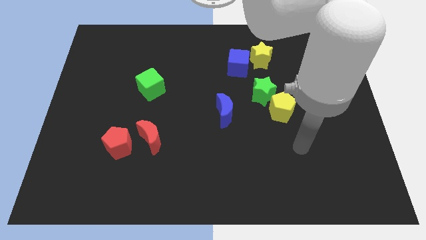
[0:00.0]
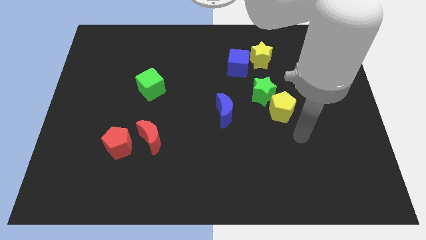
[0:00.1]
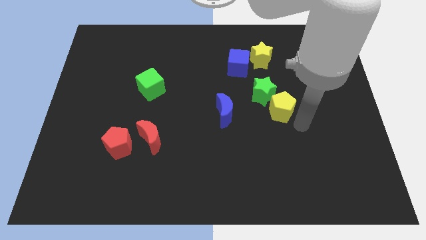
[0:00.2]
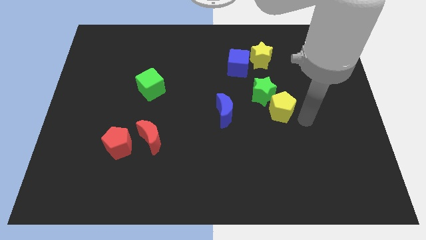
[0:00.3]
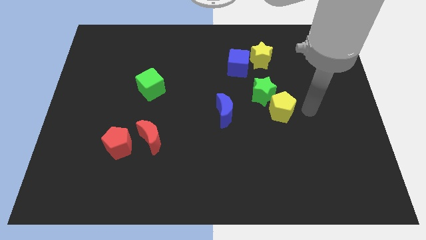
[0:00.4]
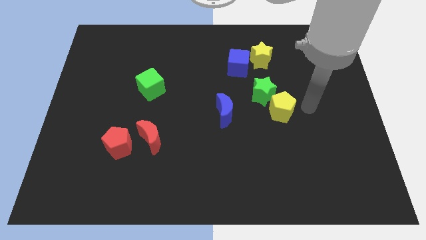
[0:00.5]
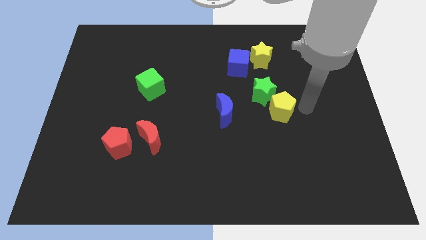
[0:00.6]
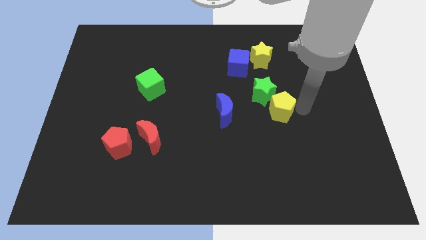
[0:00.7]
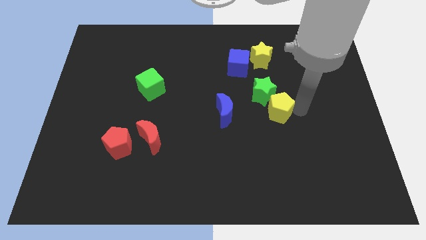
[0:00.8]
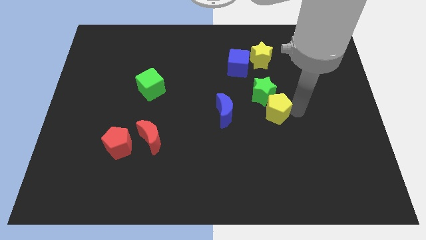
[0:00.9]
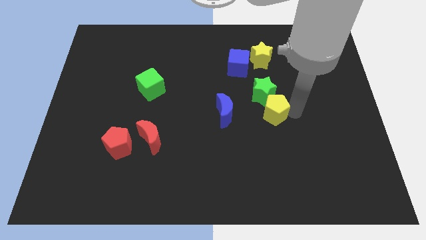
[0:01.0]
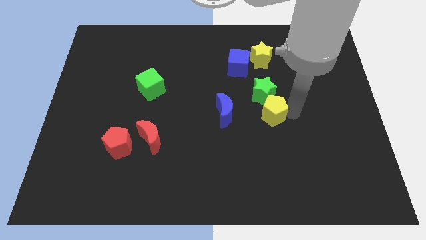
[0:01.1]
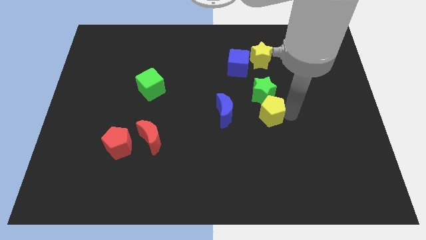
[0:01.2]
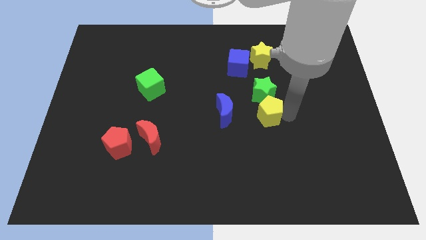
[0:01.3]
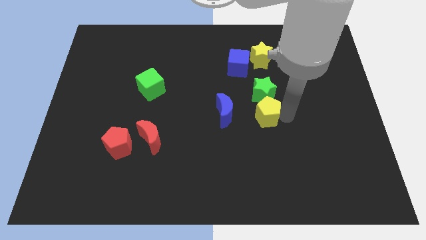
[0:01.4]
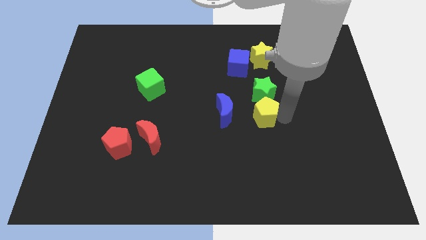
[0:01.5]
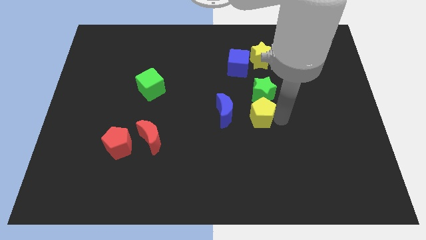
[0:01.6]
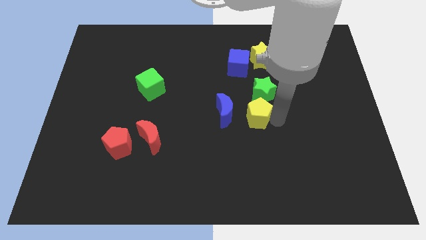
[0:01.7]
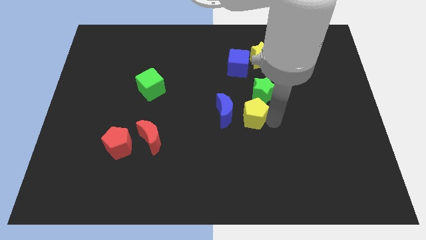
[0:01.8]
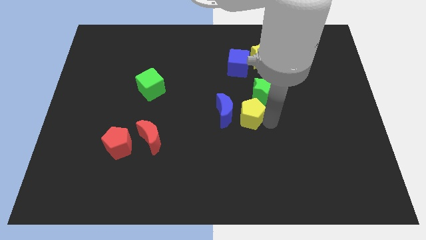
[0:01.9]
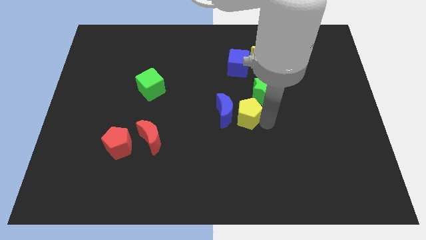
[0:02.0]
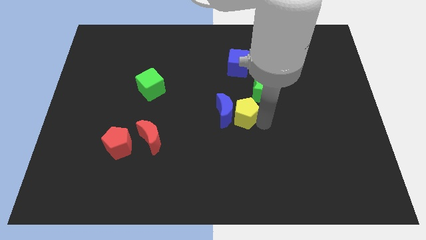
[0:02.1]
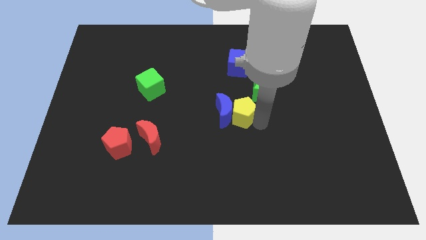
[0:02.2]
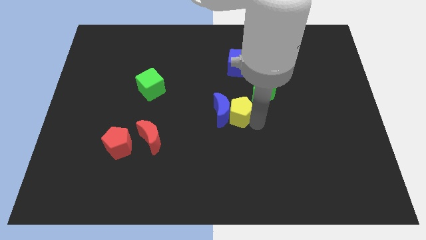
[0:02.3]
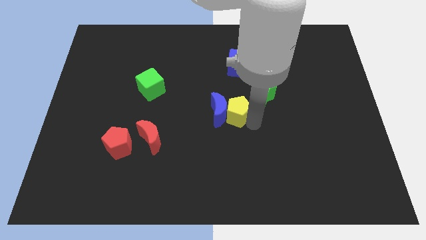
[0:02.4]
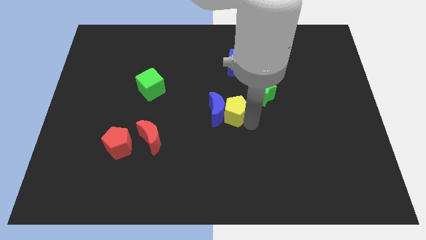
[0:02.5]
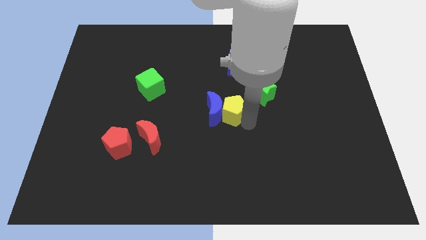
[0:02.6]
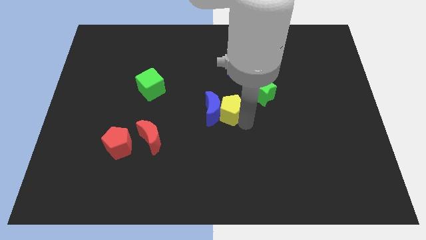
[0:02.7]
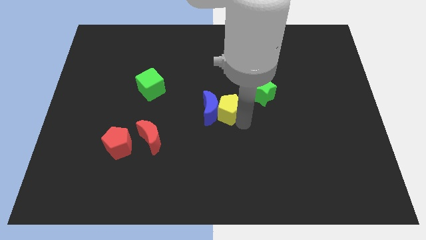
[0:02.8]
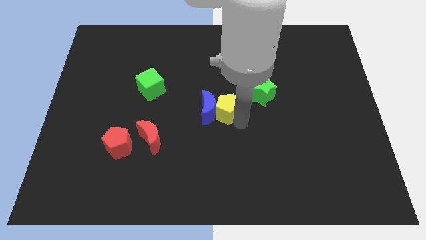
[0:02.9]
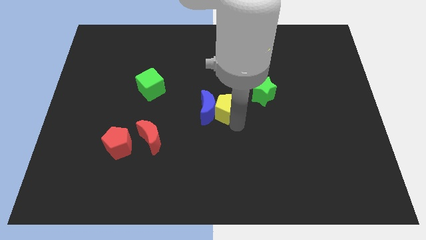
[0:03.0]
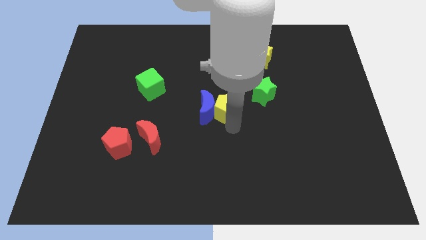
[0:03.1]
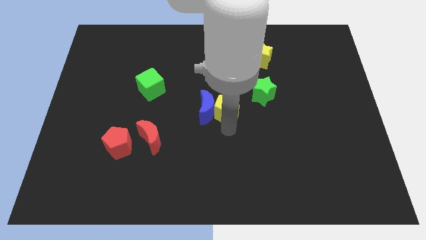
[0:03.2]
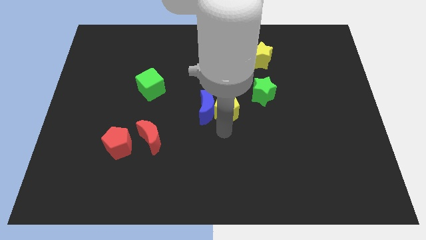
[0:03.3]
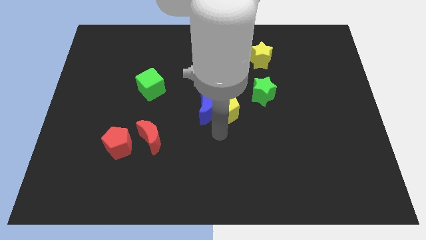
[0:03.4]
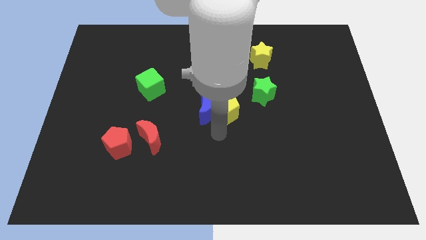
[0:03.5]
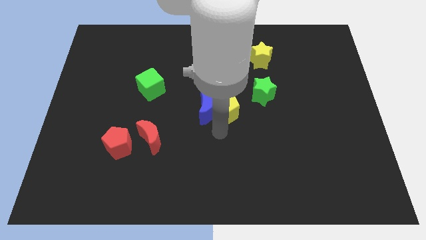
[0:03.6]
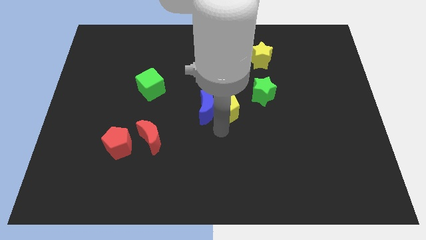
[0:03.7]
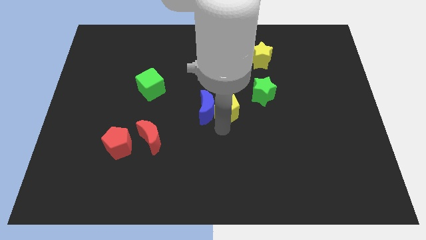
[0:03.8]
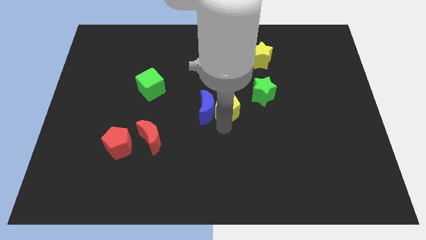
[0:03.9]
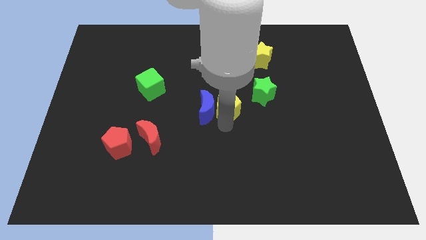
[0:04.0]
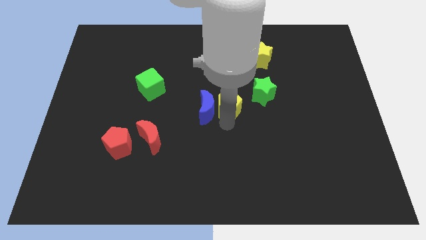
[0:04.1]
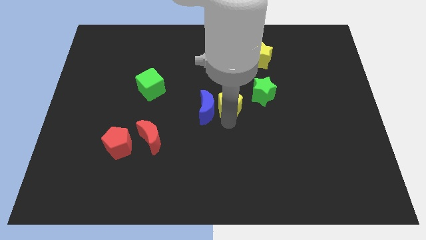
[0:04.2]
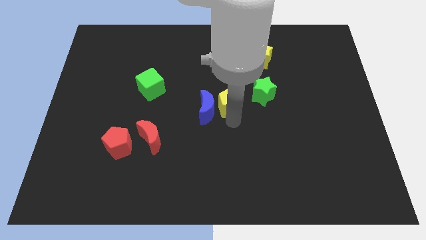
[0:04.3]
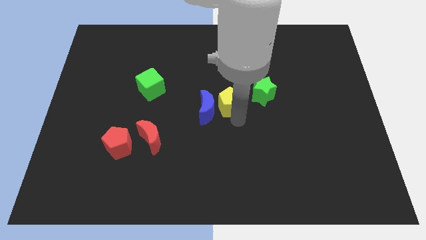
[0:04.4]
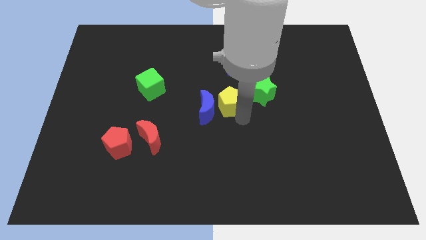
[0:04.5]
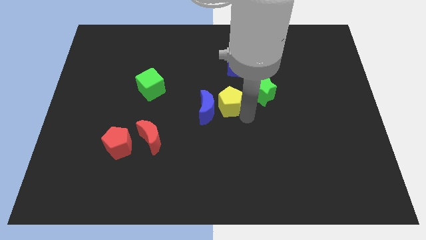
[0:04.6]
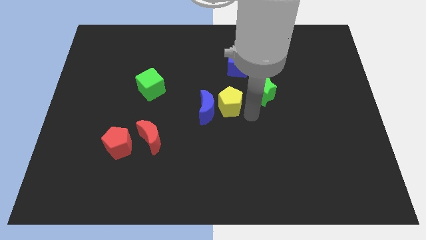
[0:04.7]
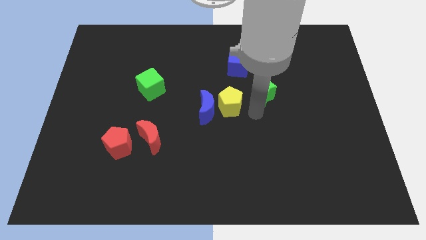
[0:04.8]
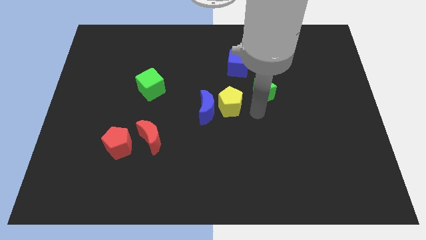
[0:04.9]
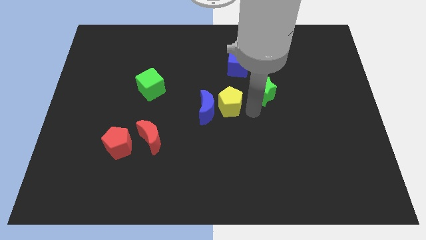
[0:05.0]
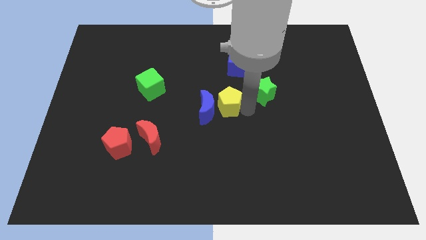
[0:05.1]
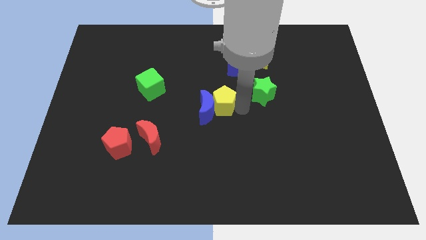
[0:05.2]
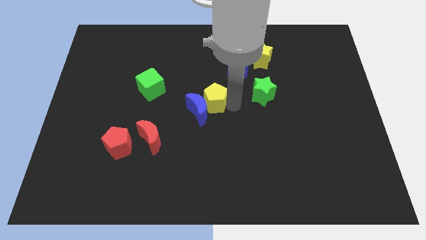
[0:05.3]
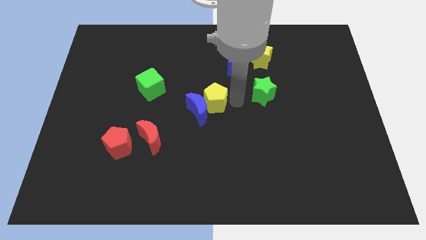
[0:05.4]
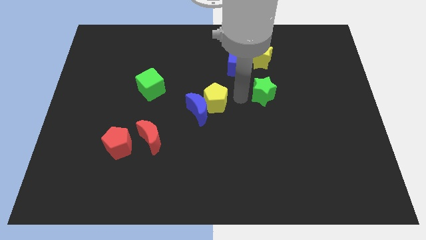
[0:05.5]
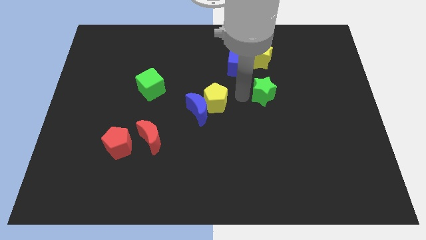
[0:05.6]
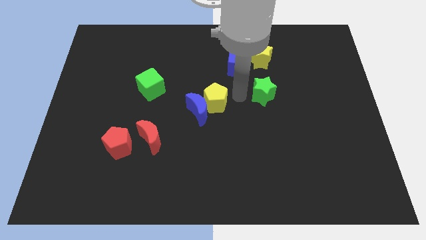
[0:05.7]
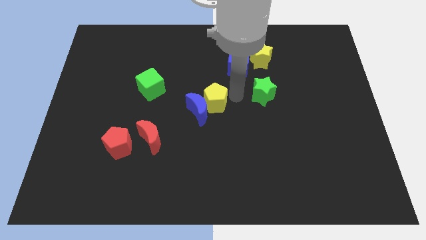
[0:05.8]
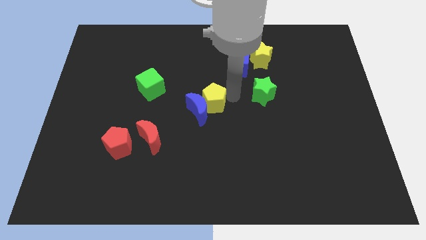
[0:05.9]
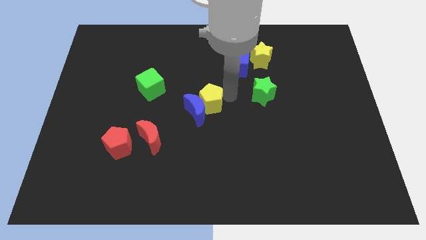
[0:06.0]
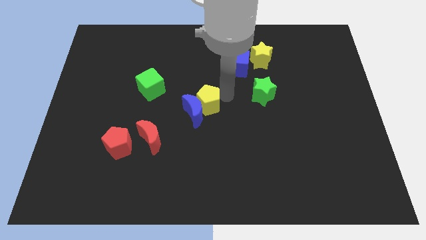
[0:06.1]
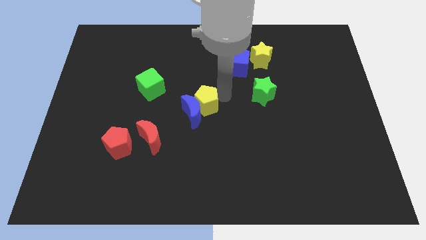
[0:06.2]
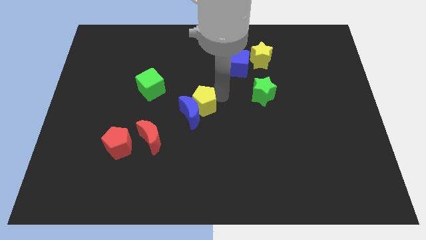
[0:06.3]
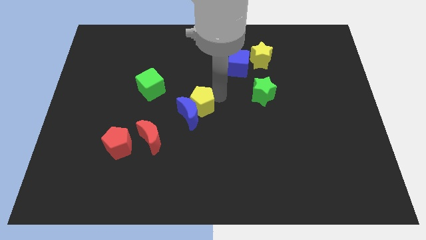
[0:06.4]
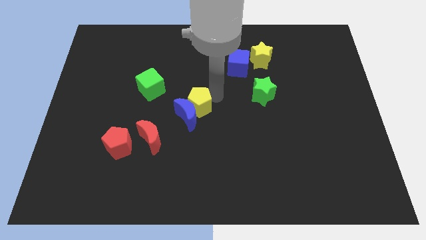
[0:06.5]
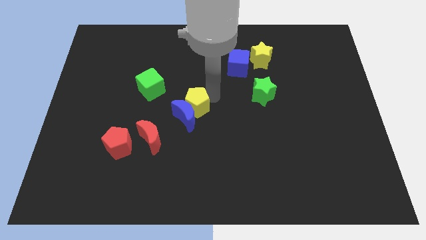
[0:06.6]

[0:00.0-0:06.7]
slide the yellow pentagon left

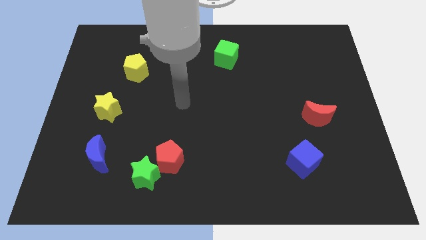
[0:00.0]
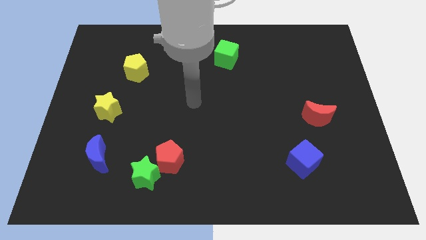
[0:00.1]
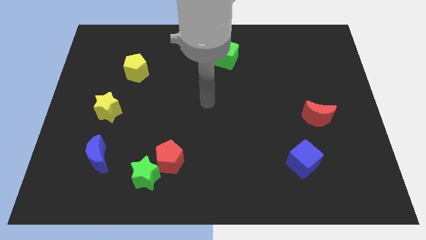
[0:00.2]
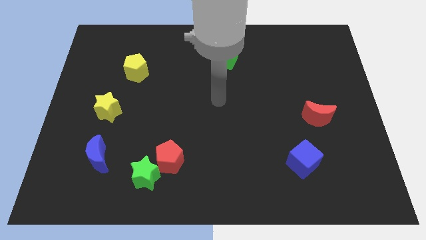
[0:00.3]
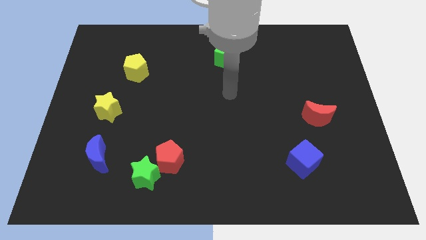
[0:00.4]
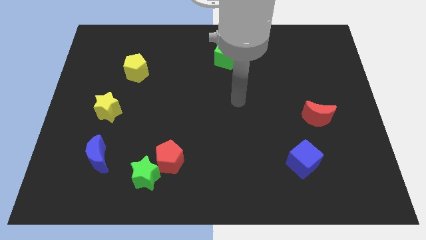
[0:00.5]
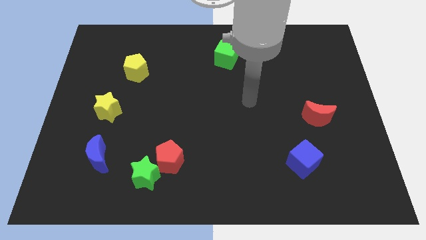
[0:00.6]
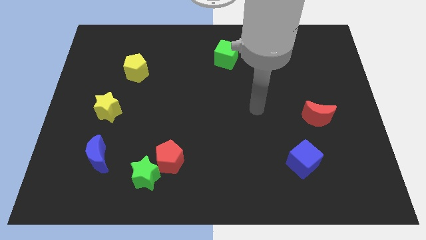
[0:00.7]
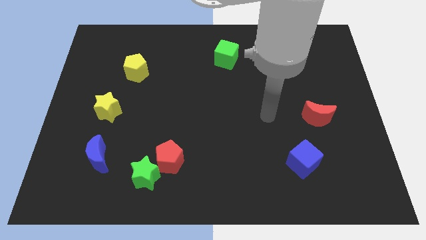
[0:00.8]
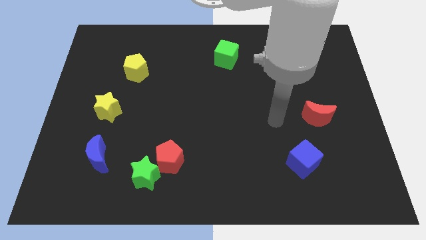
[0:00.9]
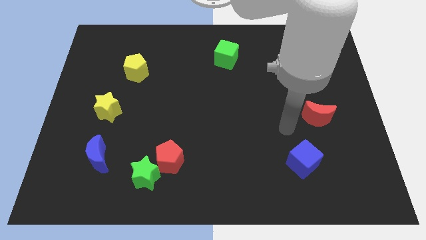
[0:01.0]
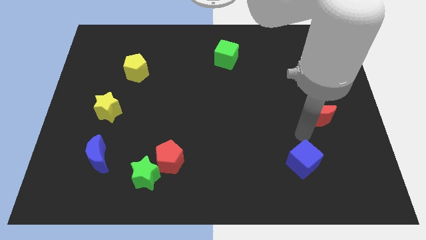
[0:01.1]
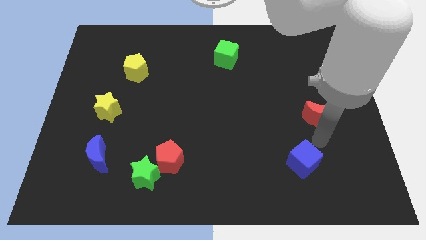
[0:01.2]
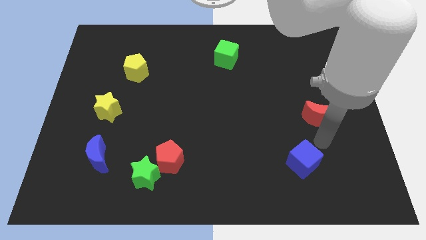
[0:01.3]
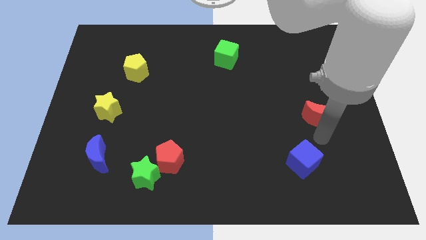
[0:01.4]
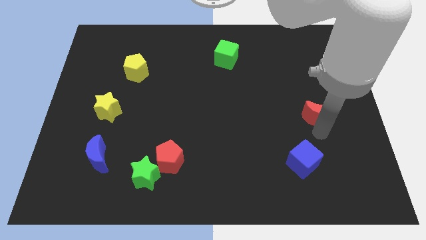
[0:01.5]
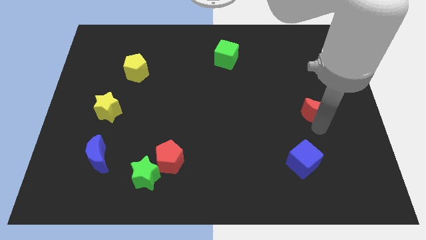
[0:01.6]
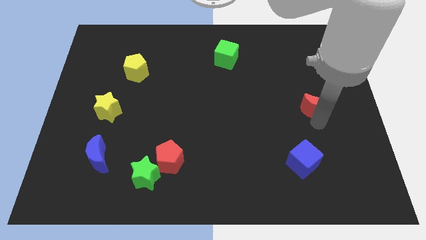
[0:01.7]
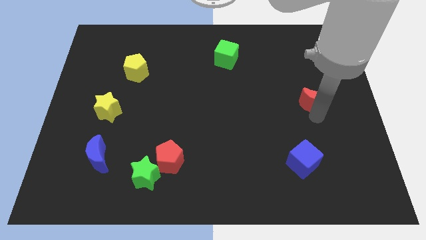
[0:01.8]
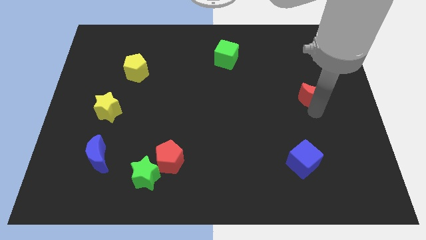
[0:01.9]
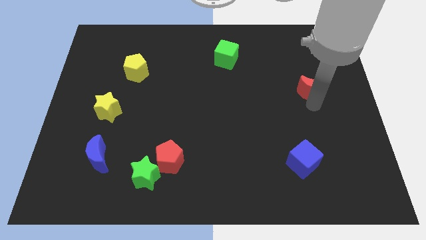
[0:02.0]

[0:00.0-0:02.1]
slightly slide the red moon upwards
